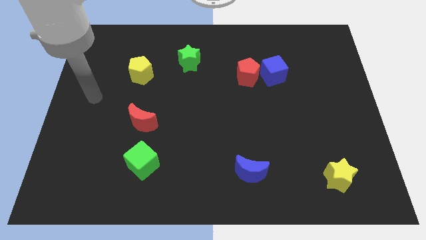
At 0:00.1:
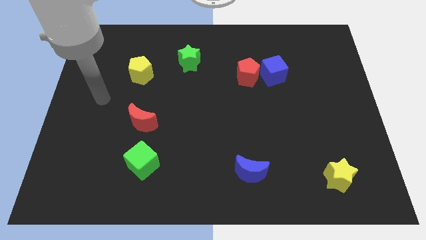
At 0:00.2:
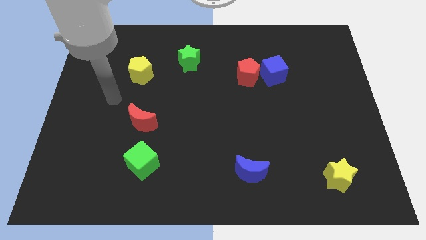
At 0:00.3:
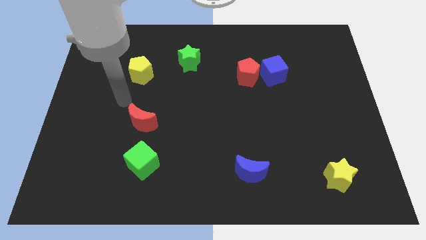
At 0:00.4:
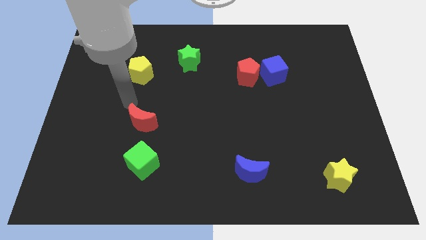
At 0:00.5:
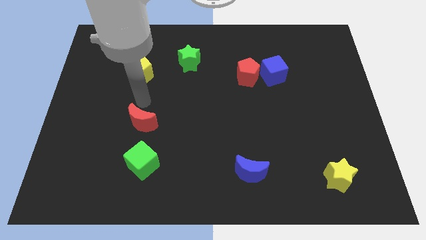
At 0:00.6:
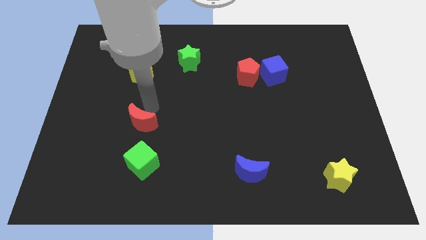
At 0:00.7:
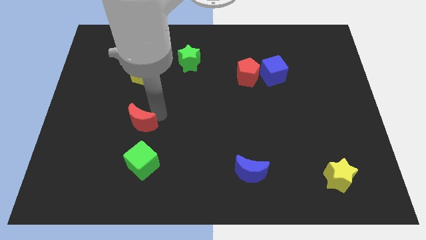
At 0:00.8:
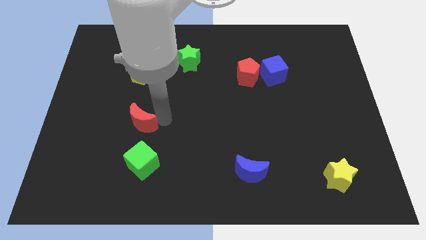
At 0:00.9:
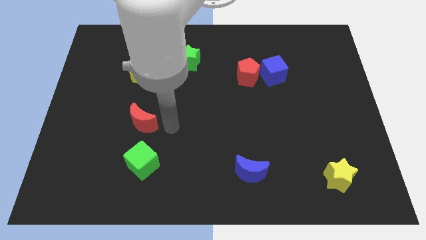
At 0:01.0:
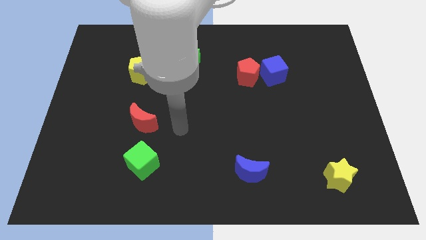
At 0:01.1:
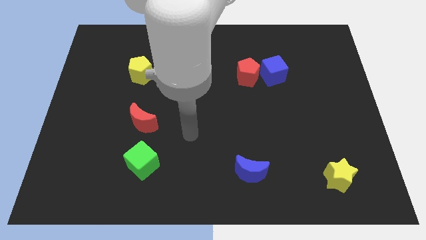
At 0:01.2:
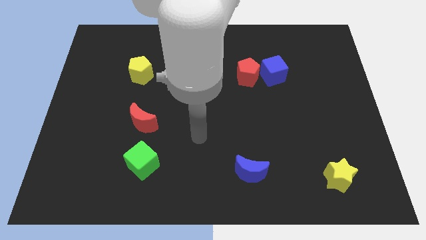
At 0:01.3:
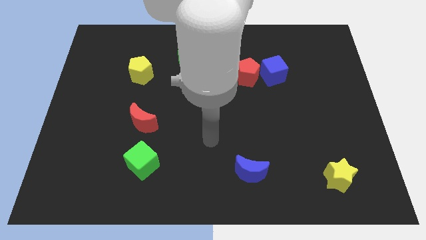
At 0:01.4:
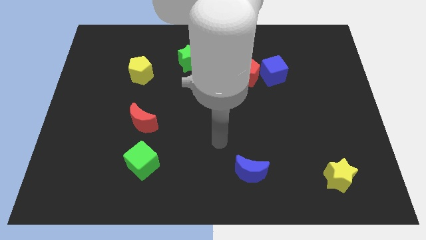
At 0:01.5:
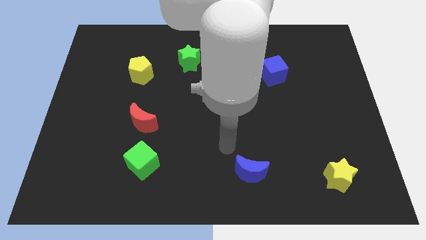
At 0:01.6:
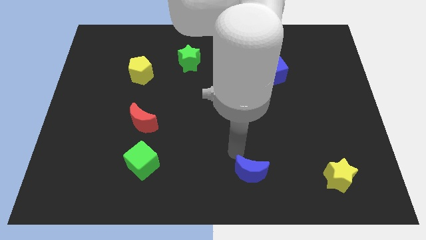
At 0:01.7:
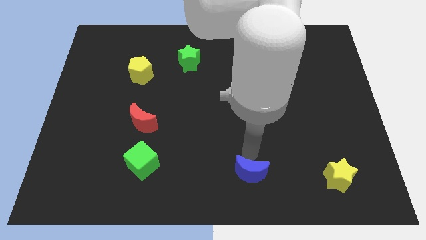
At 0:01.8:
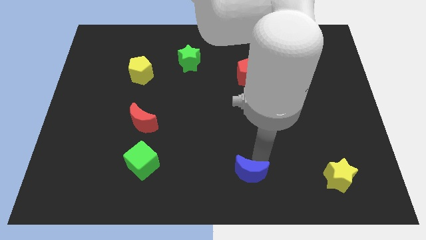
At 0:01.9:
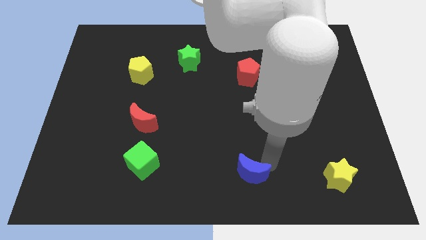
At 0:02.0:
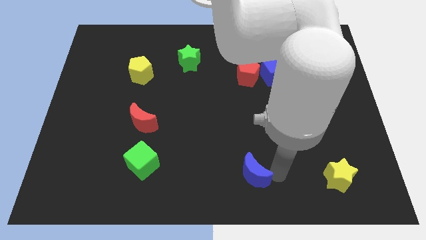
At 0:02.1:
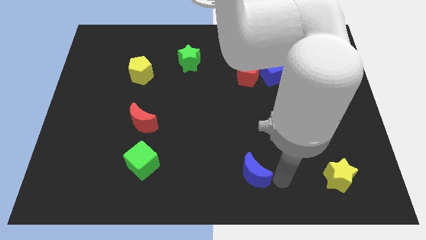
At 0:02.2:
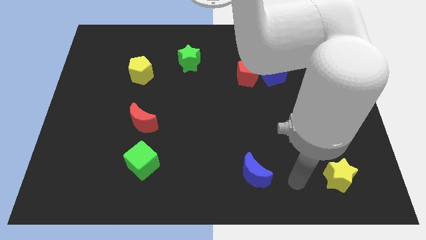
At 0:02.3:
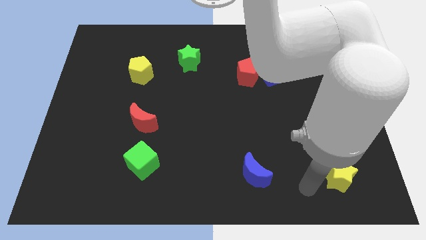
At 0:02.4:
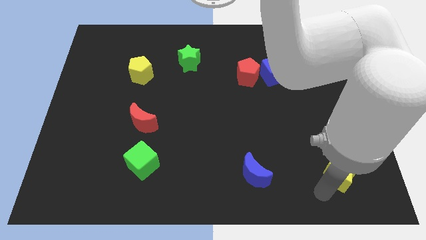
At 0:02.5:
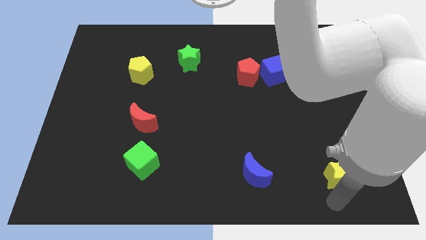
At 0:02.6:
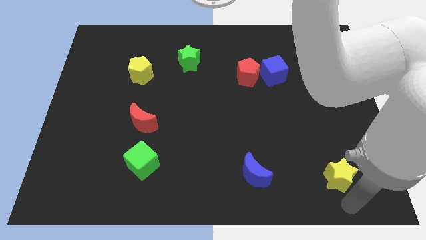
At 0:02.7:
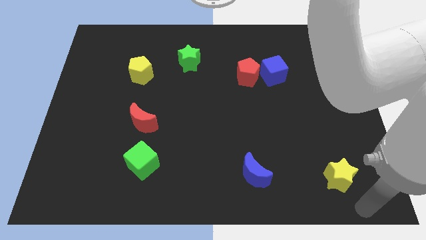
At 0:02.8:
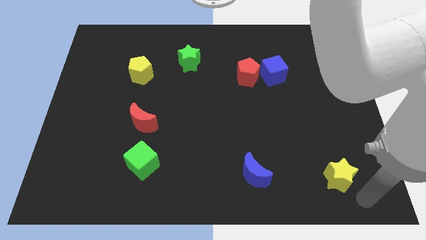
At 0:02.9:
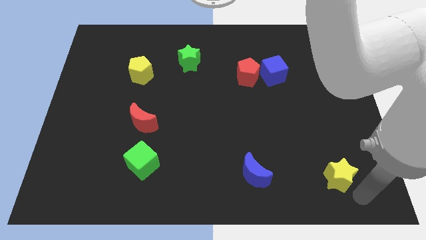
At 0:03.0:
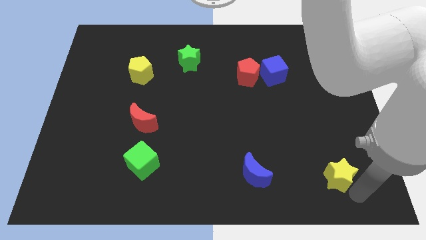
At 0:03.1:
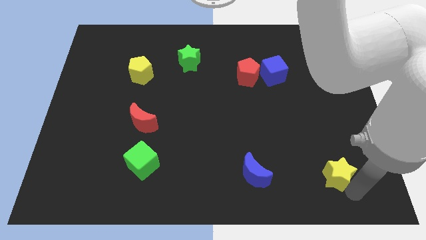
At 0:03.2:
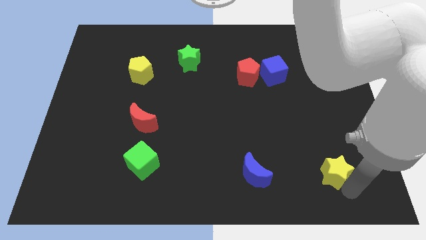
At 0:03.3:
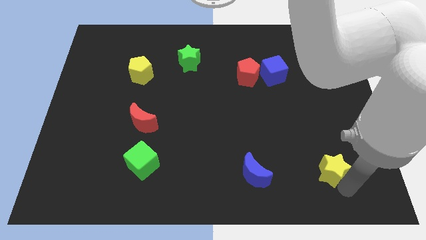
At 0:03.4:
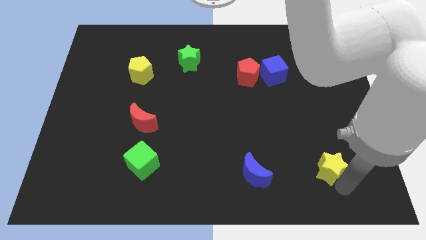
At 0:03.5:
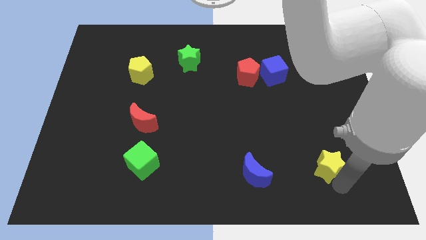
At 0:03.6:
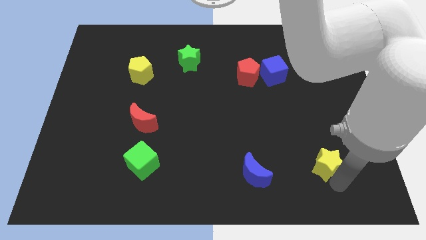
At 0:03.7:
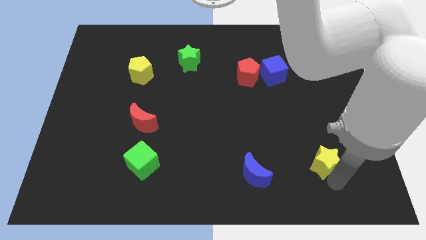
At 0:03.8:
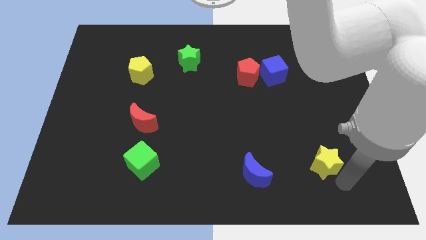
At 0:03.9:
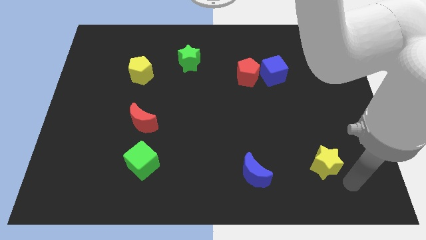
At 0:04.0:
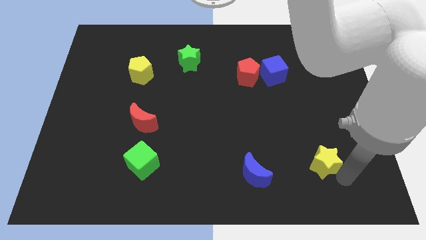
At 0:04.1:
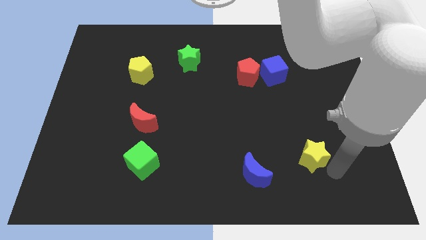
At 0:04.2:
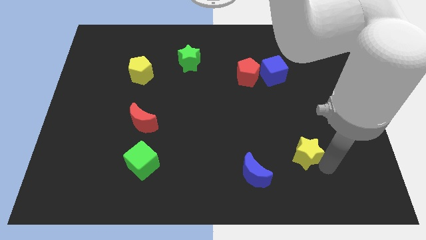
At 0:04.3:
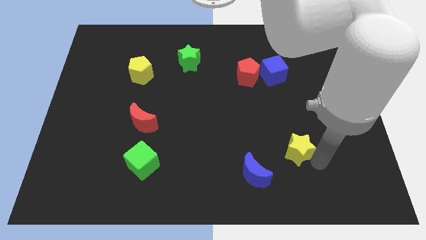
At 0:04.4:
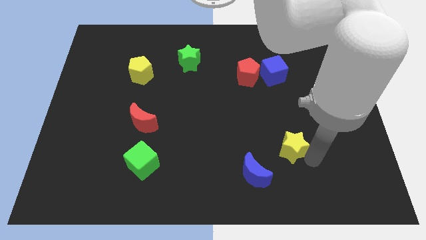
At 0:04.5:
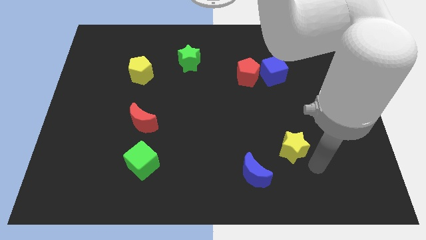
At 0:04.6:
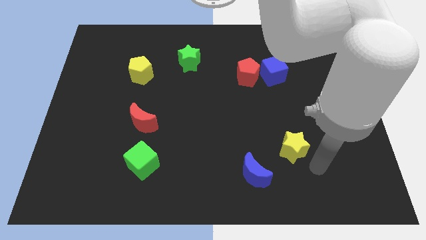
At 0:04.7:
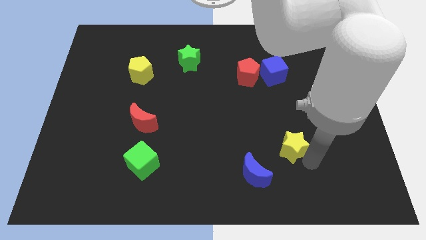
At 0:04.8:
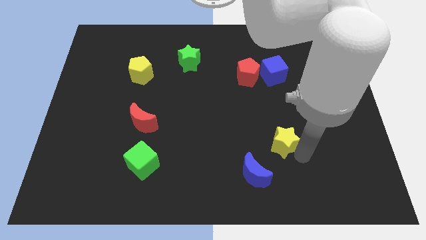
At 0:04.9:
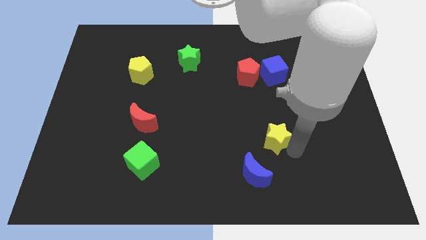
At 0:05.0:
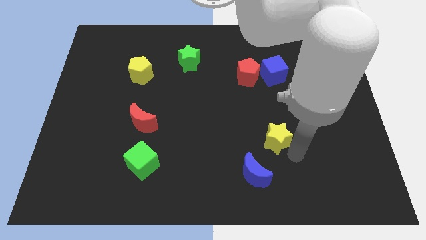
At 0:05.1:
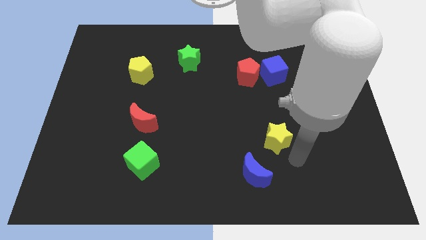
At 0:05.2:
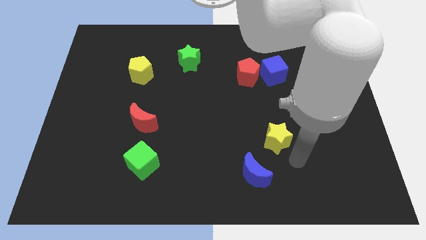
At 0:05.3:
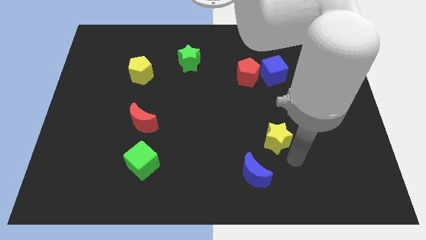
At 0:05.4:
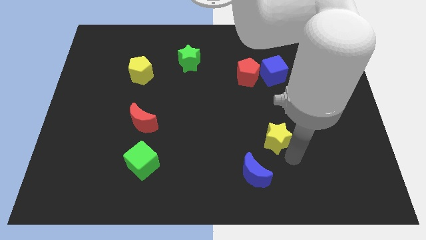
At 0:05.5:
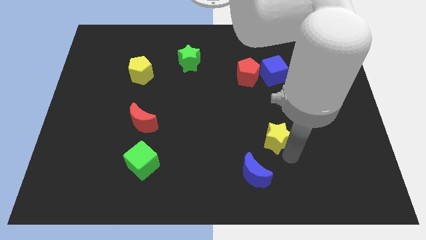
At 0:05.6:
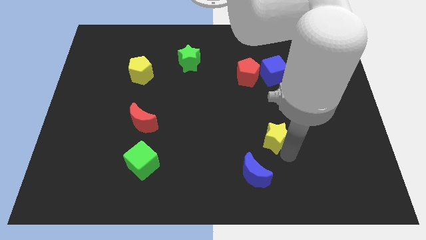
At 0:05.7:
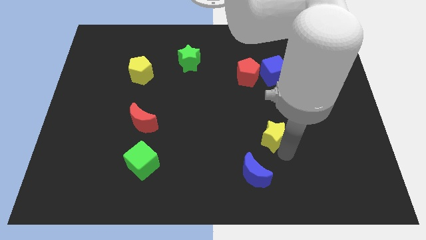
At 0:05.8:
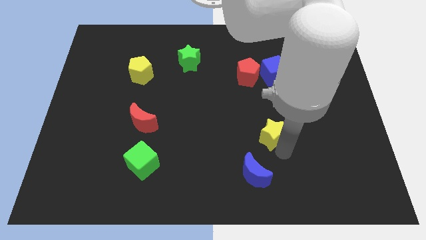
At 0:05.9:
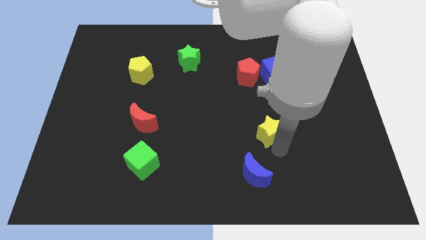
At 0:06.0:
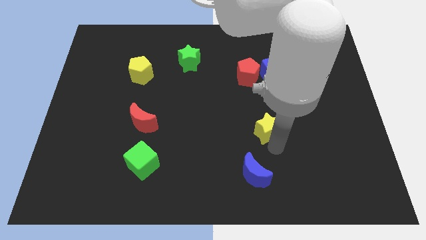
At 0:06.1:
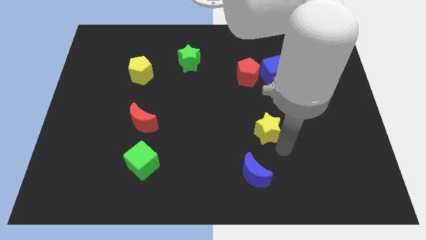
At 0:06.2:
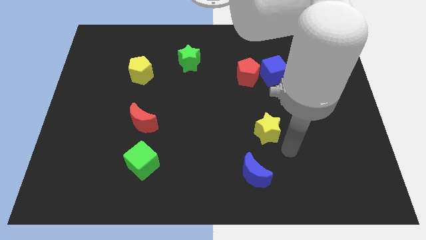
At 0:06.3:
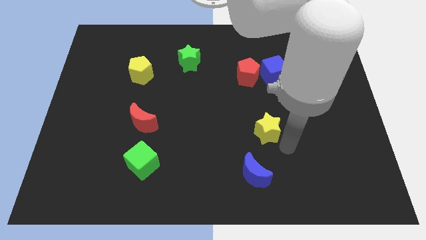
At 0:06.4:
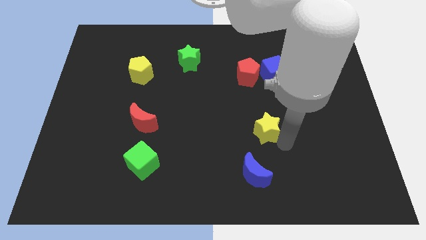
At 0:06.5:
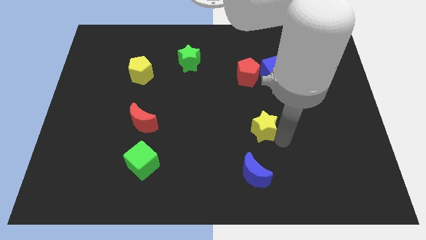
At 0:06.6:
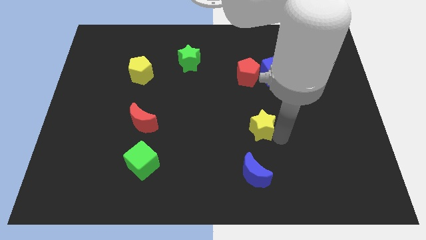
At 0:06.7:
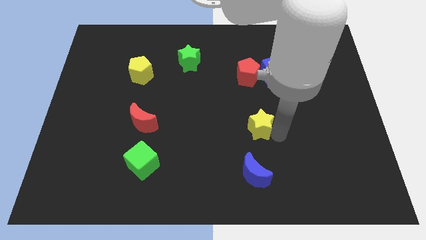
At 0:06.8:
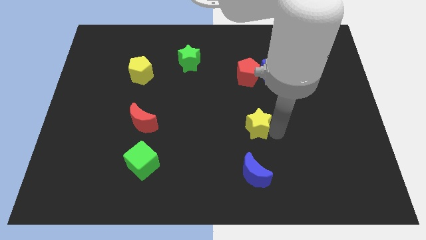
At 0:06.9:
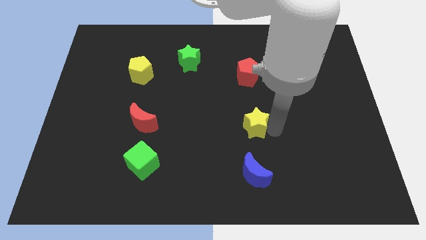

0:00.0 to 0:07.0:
move the yellow star up and to the left

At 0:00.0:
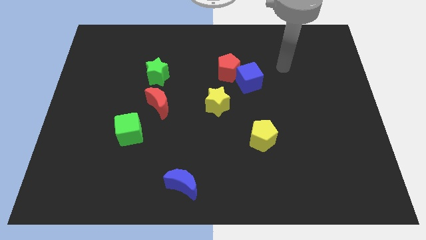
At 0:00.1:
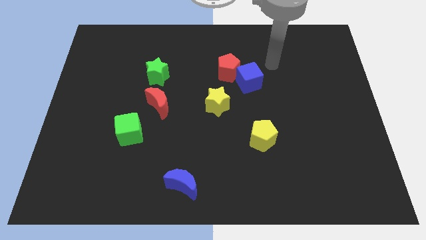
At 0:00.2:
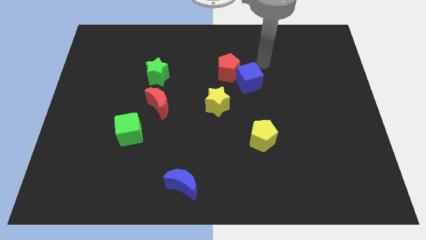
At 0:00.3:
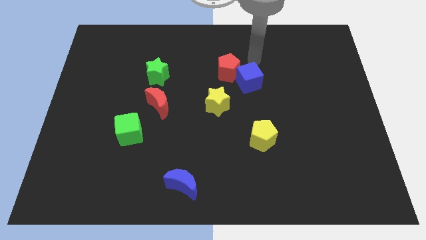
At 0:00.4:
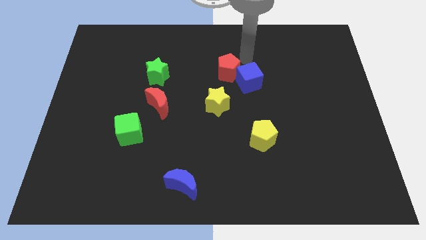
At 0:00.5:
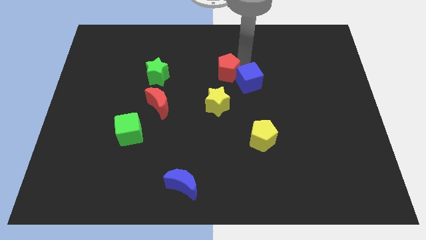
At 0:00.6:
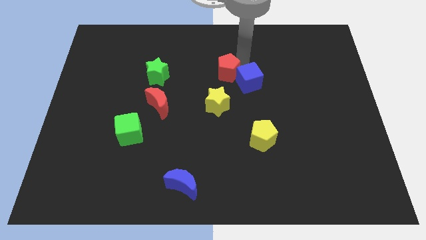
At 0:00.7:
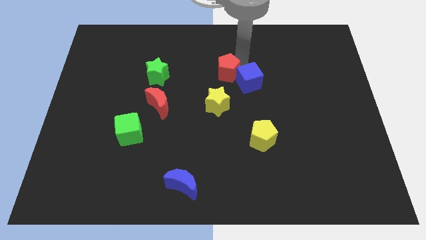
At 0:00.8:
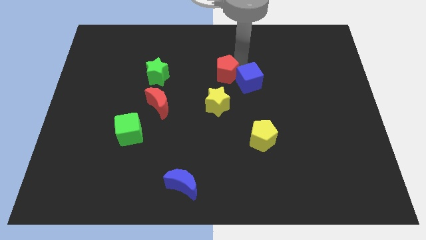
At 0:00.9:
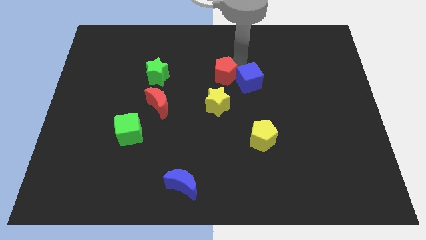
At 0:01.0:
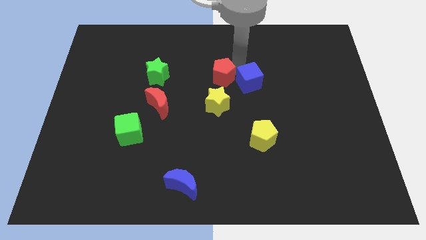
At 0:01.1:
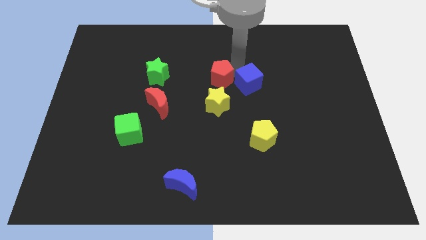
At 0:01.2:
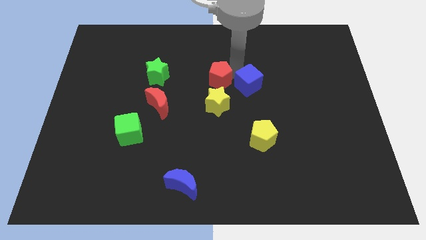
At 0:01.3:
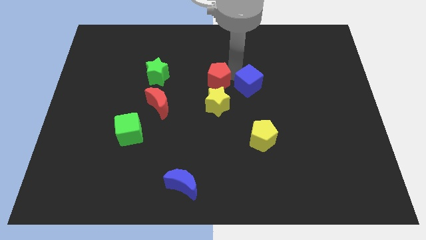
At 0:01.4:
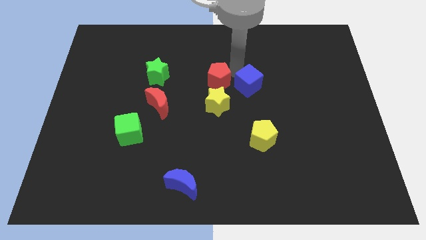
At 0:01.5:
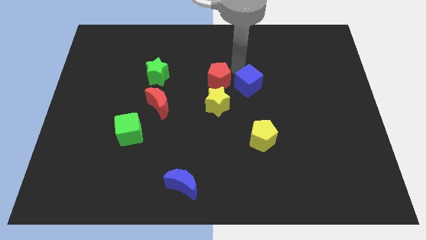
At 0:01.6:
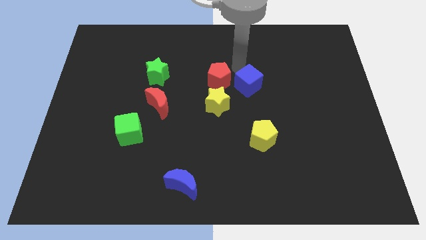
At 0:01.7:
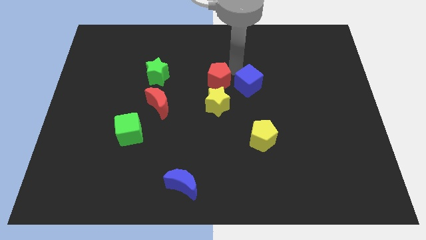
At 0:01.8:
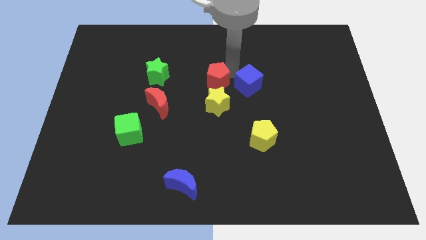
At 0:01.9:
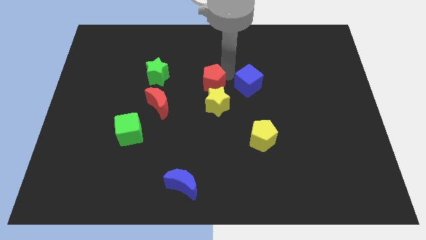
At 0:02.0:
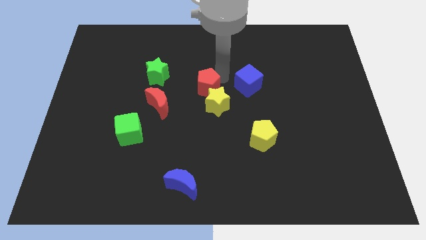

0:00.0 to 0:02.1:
move the red pentagon down and then to the left somewhat
